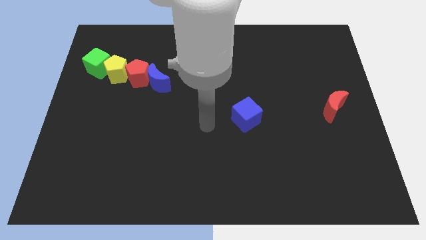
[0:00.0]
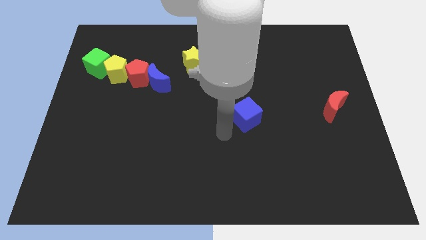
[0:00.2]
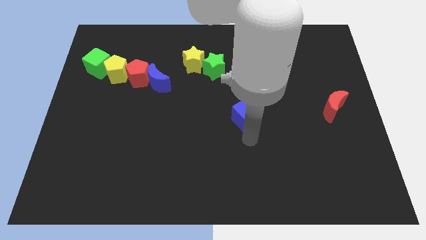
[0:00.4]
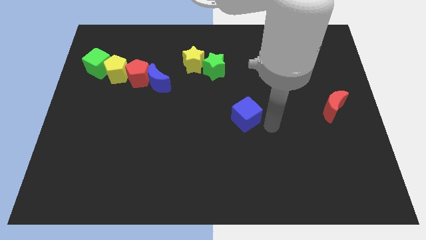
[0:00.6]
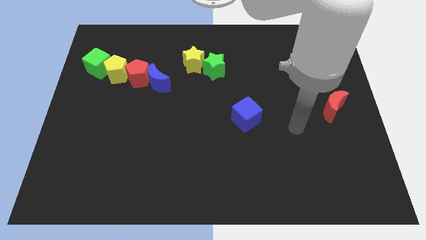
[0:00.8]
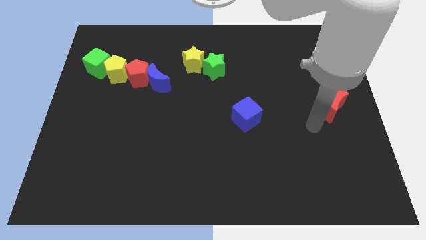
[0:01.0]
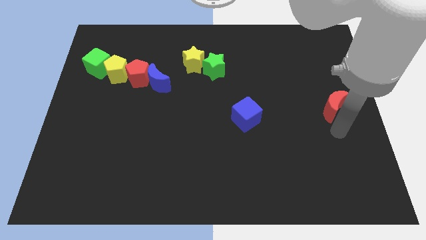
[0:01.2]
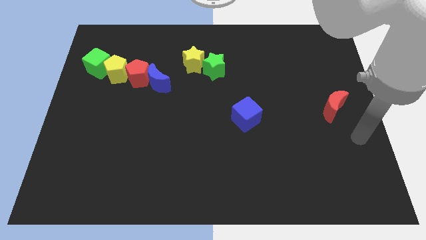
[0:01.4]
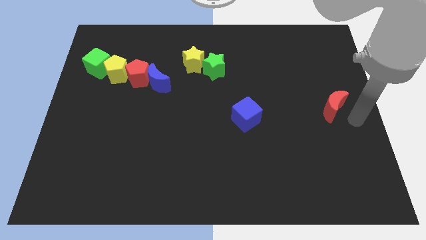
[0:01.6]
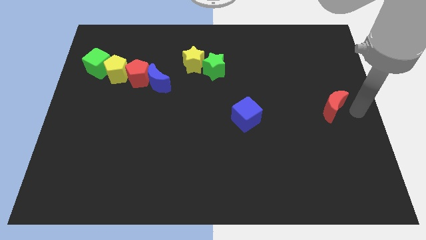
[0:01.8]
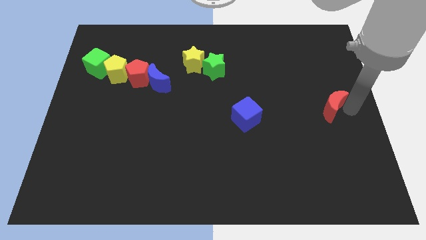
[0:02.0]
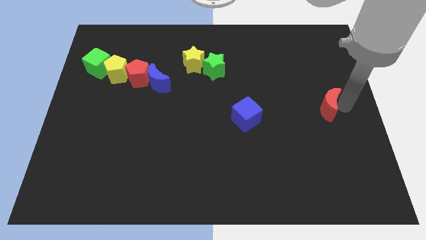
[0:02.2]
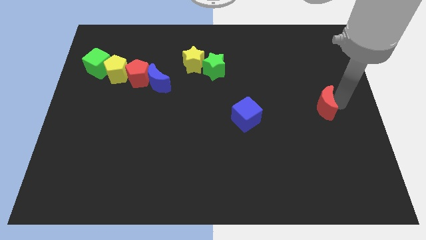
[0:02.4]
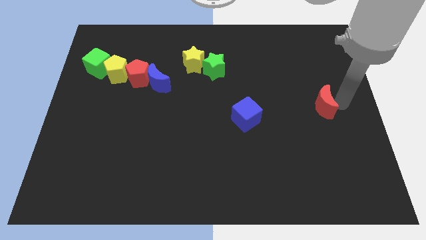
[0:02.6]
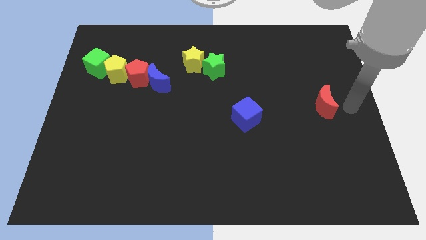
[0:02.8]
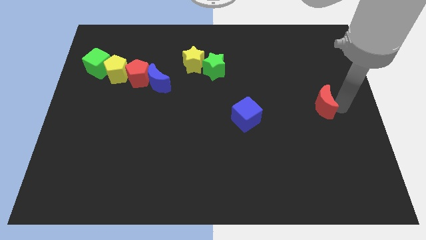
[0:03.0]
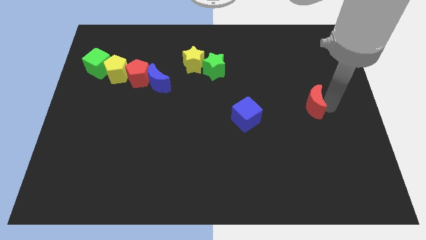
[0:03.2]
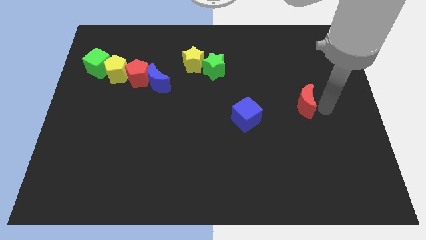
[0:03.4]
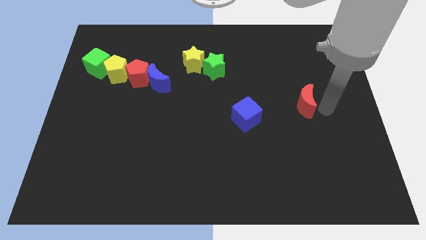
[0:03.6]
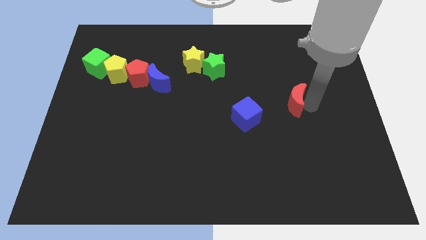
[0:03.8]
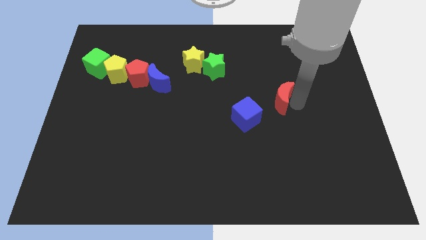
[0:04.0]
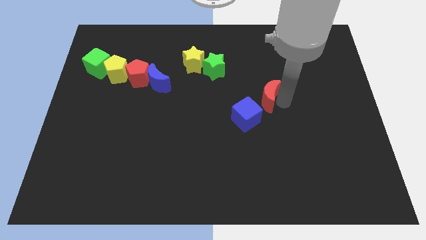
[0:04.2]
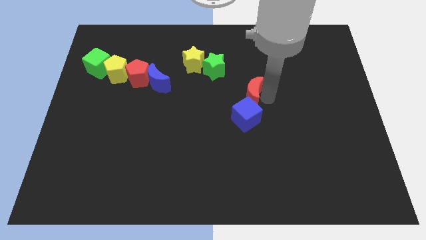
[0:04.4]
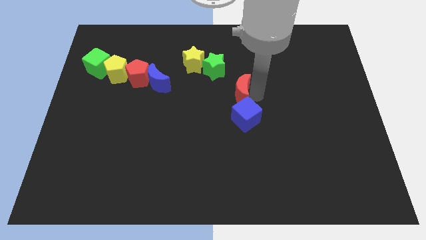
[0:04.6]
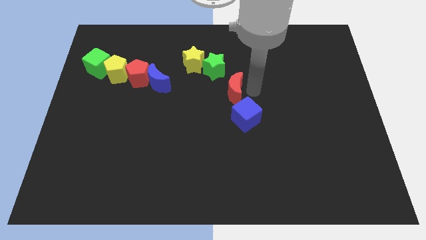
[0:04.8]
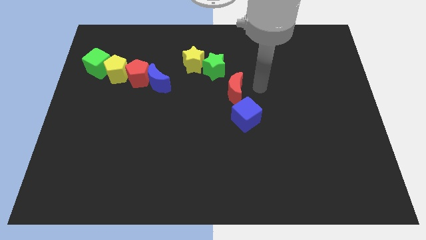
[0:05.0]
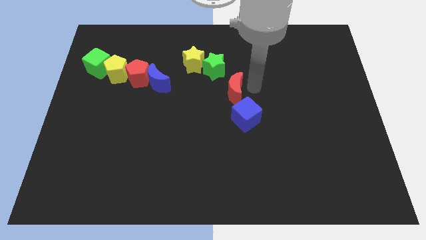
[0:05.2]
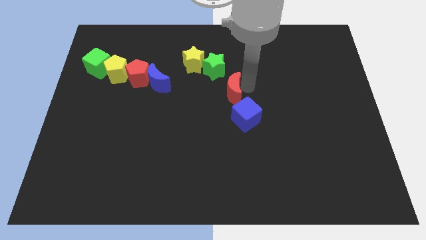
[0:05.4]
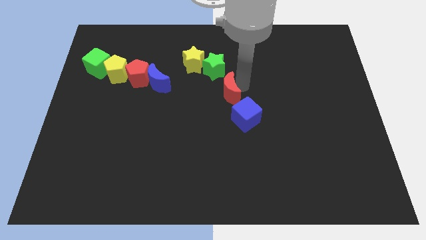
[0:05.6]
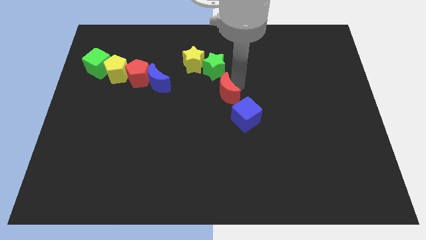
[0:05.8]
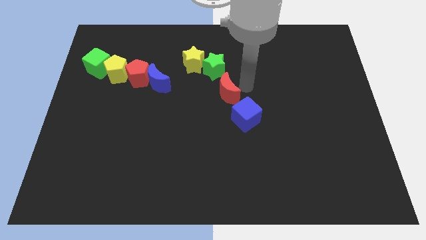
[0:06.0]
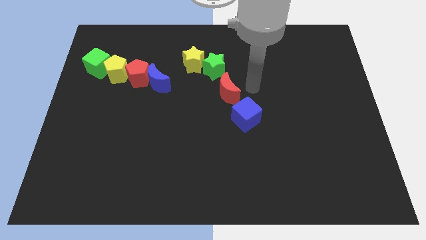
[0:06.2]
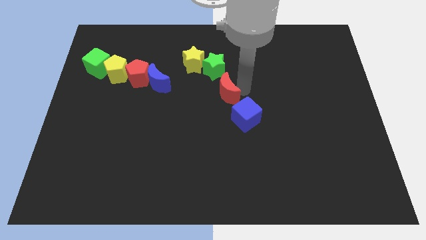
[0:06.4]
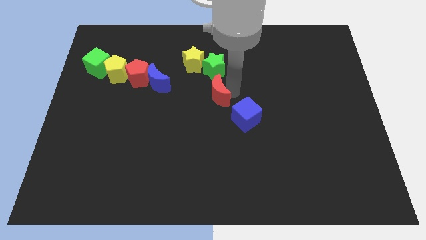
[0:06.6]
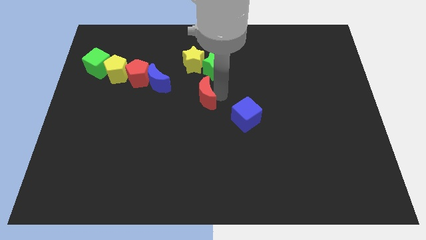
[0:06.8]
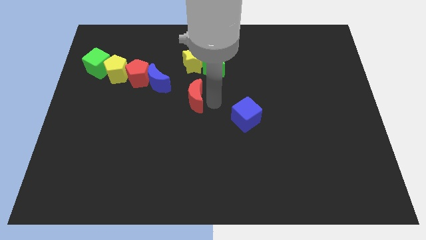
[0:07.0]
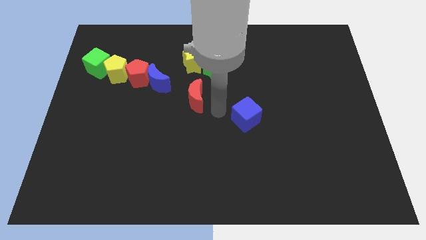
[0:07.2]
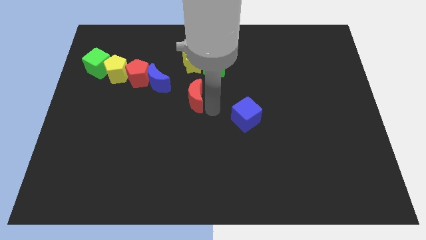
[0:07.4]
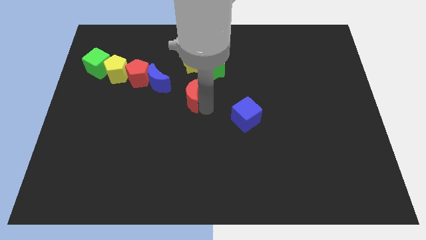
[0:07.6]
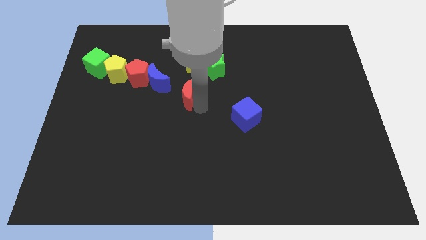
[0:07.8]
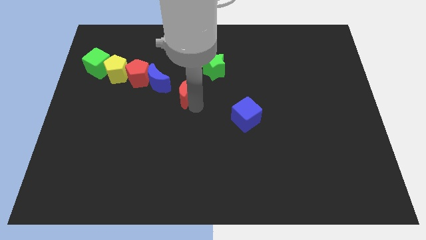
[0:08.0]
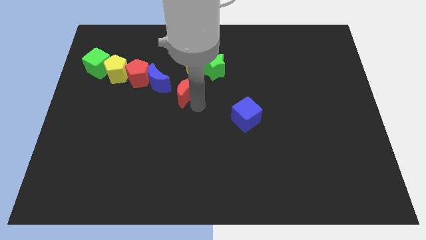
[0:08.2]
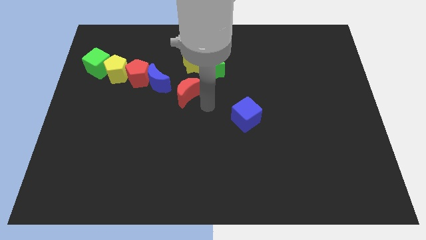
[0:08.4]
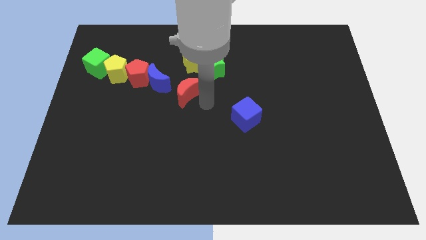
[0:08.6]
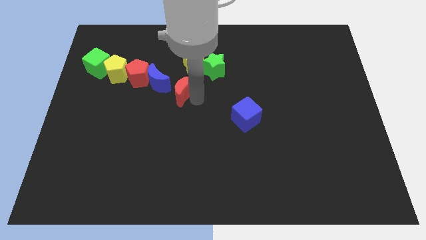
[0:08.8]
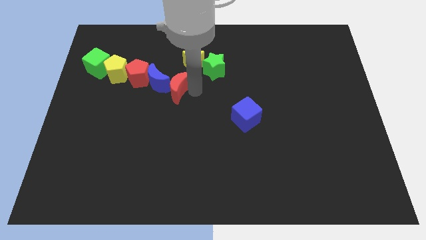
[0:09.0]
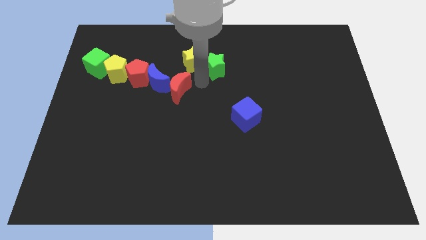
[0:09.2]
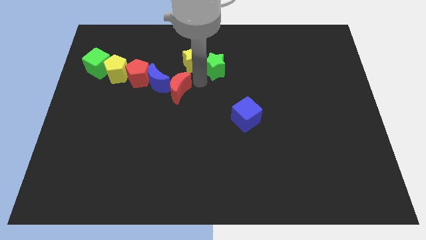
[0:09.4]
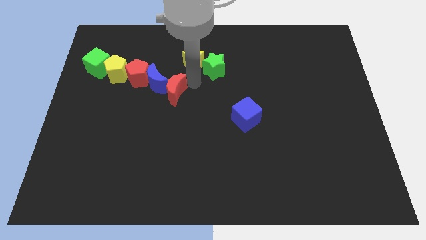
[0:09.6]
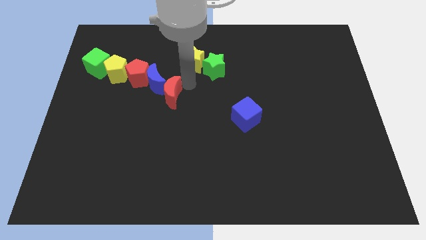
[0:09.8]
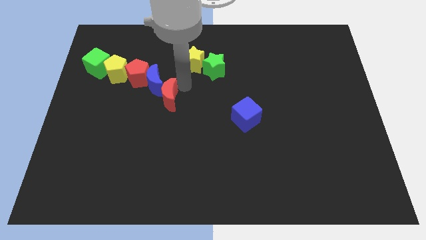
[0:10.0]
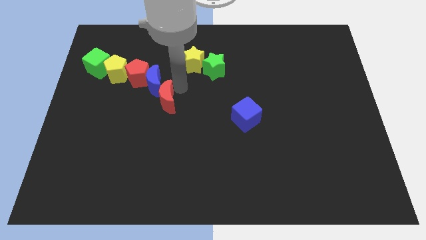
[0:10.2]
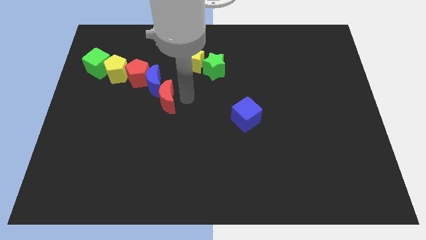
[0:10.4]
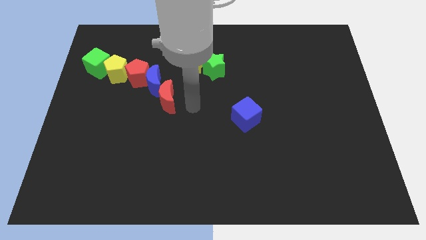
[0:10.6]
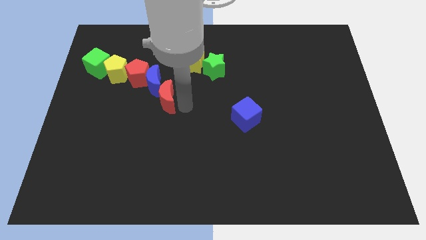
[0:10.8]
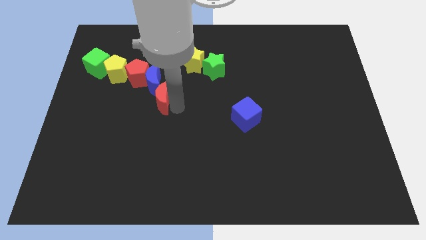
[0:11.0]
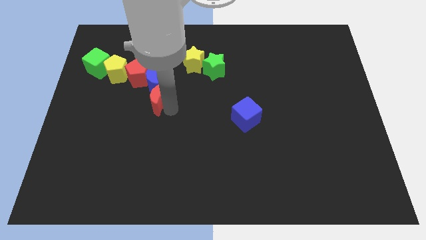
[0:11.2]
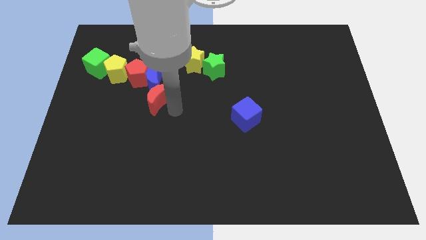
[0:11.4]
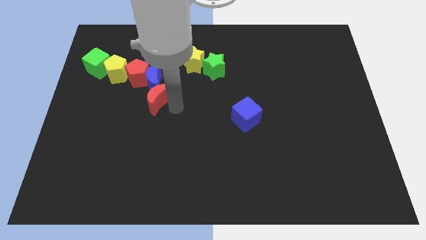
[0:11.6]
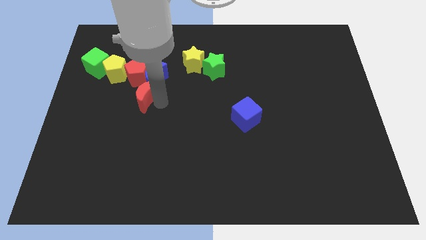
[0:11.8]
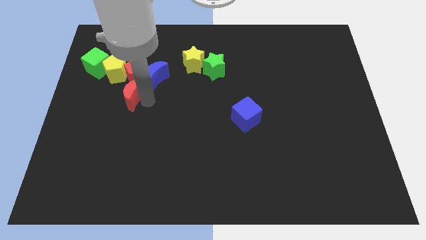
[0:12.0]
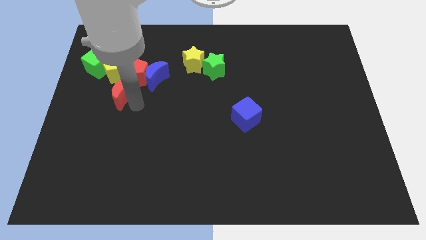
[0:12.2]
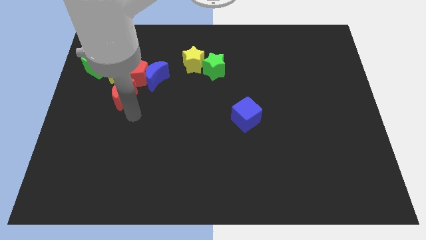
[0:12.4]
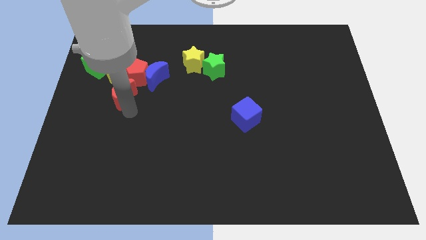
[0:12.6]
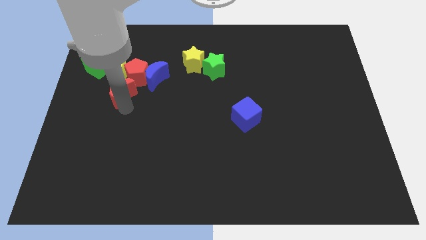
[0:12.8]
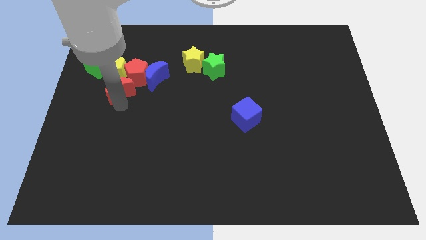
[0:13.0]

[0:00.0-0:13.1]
slide the red moon left of the blue moon
